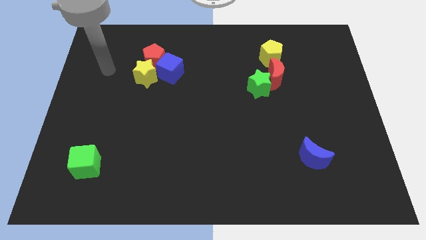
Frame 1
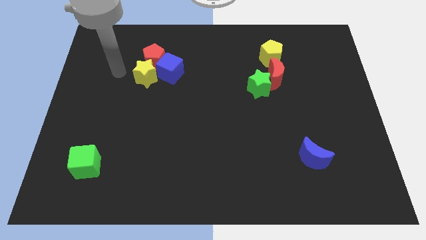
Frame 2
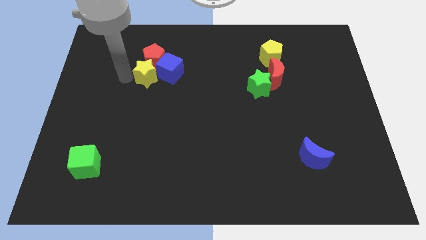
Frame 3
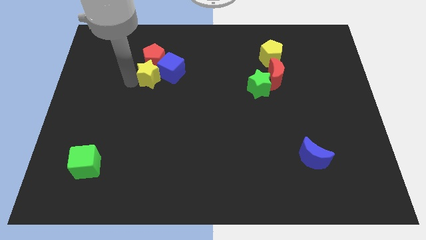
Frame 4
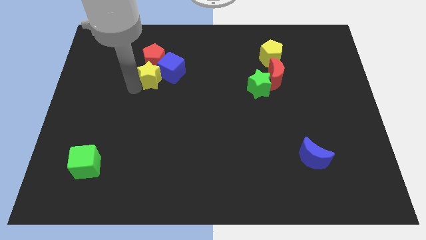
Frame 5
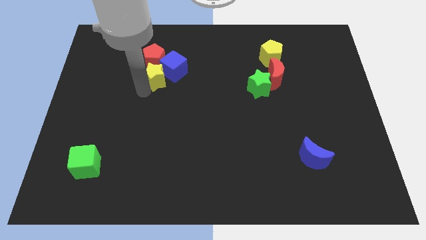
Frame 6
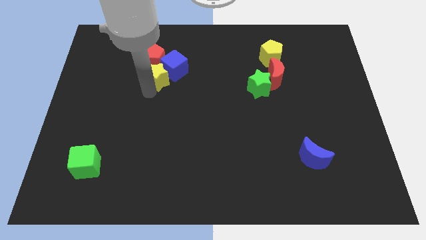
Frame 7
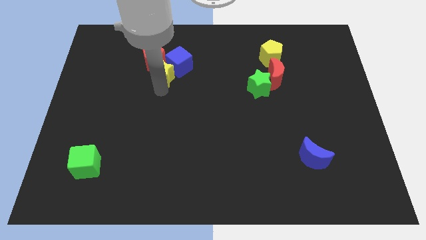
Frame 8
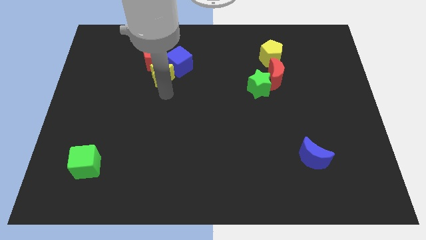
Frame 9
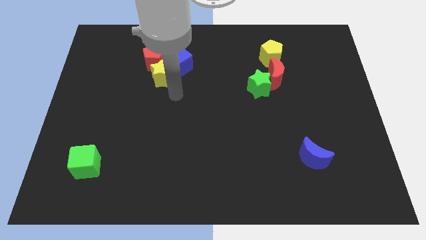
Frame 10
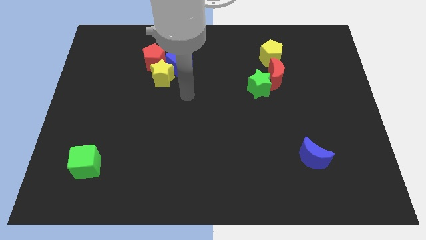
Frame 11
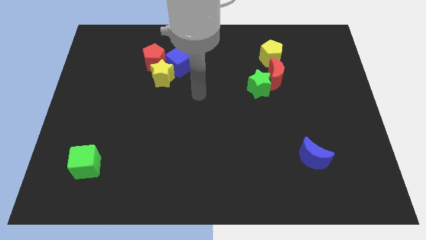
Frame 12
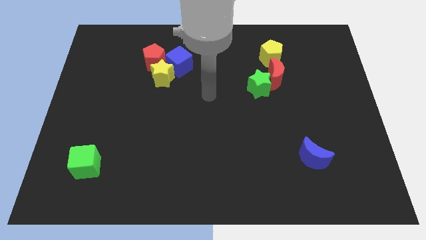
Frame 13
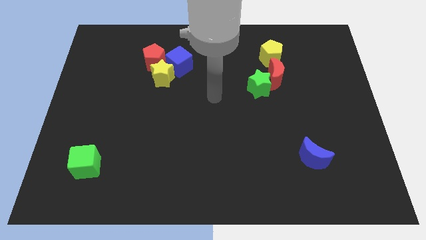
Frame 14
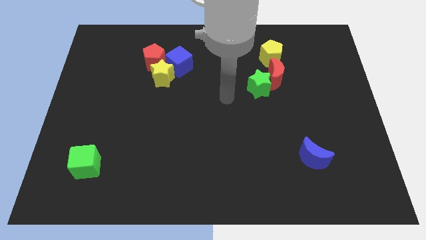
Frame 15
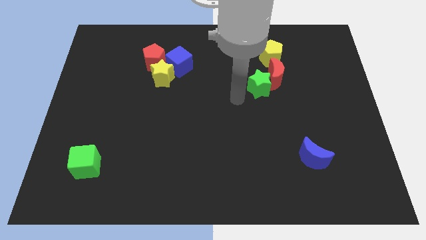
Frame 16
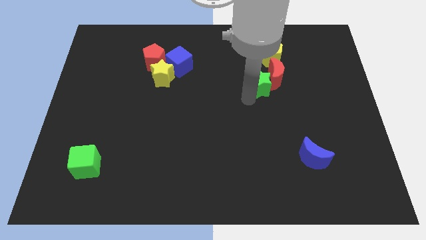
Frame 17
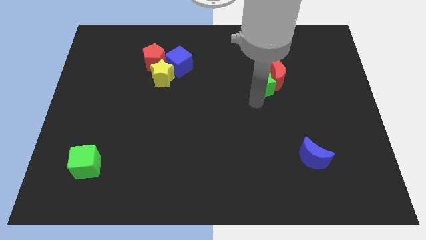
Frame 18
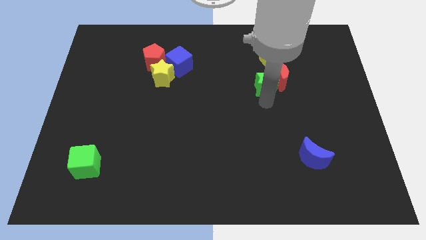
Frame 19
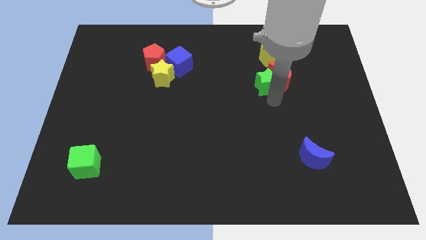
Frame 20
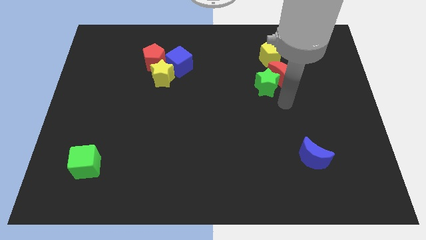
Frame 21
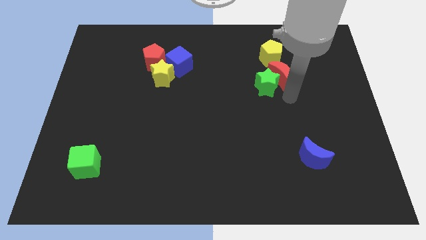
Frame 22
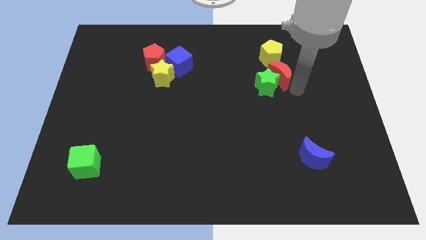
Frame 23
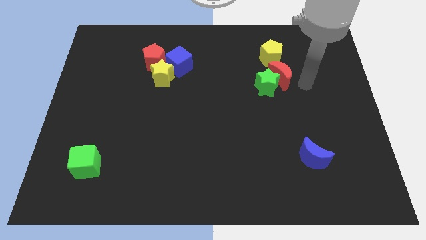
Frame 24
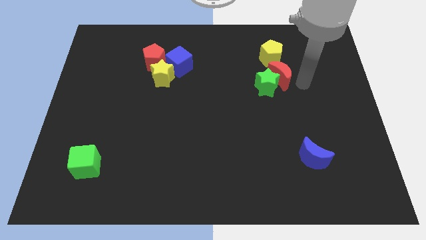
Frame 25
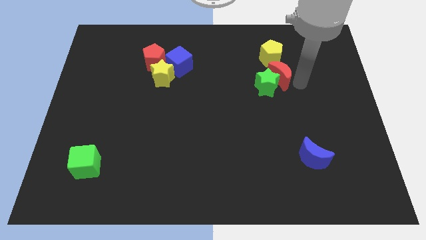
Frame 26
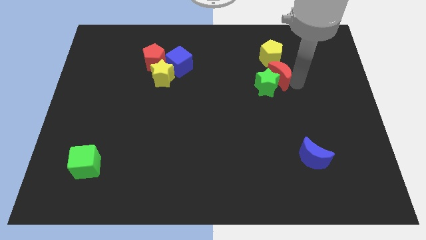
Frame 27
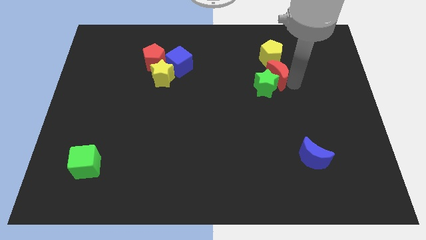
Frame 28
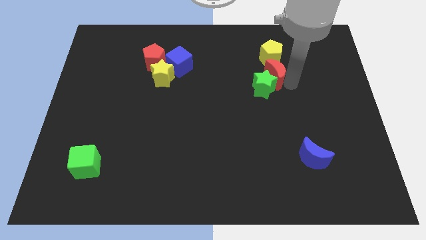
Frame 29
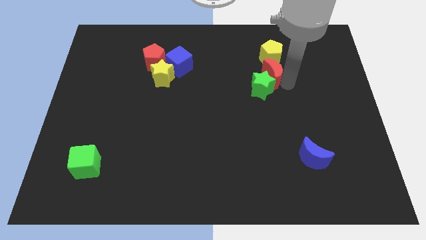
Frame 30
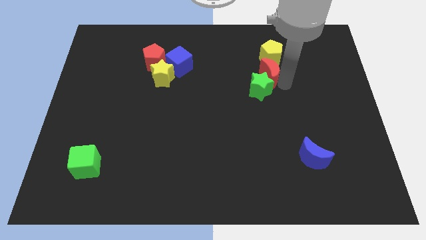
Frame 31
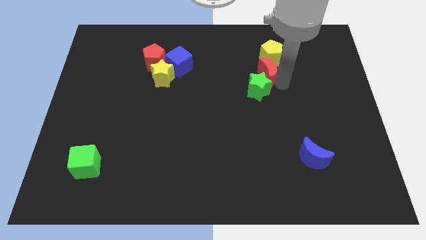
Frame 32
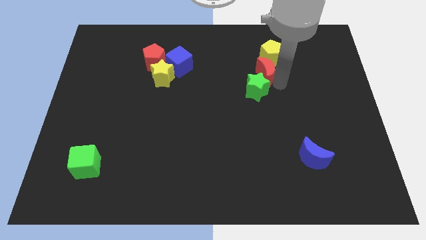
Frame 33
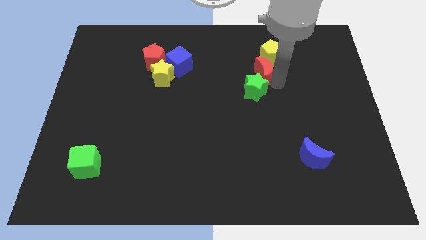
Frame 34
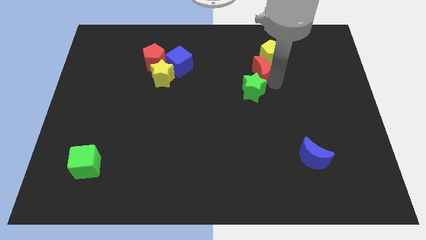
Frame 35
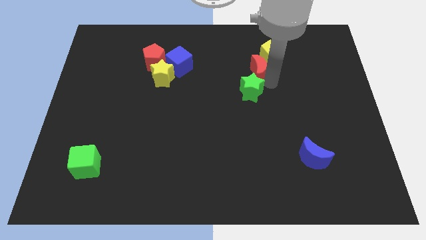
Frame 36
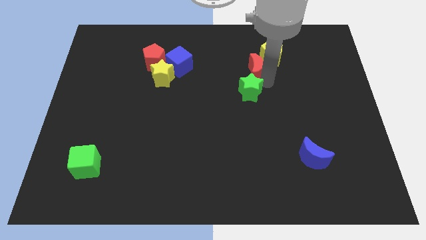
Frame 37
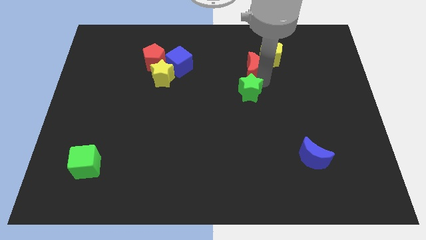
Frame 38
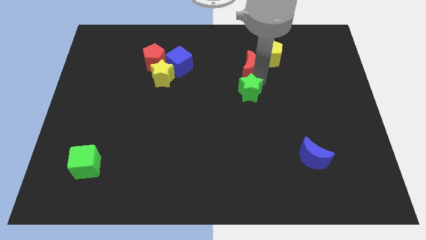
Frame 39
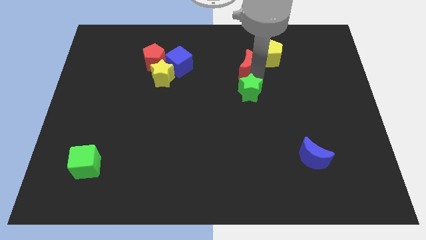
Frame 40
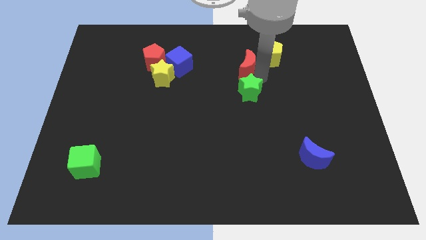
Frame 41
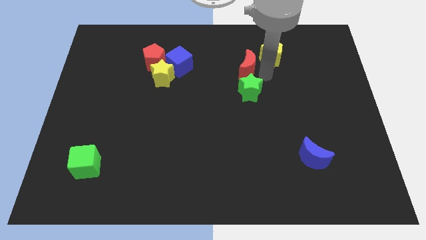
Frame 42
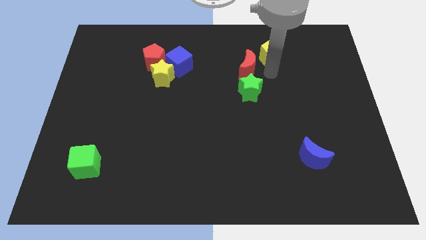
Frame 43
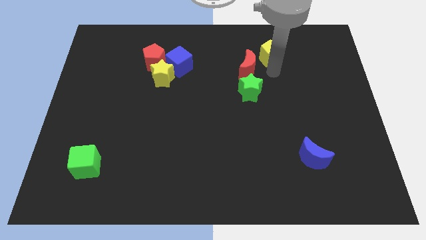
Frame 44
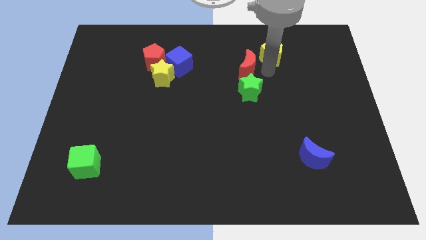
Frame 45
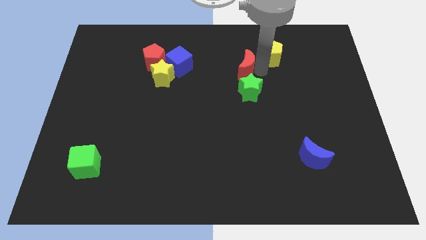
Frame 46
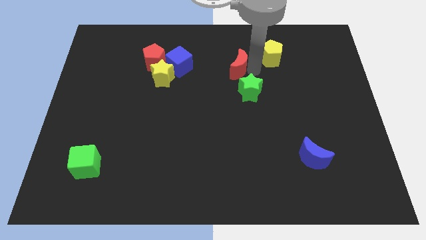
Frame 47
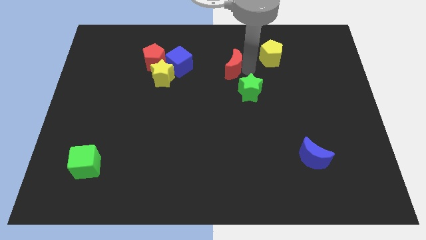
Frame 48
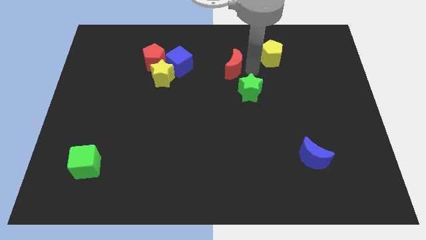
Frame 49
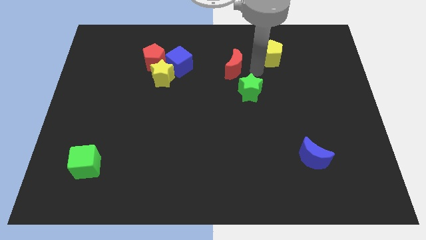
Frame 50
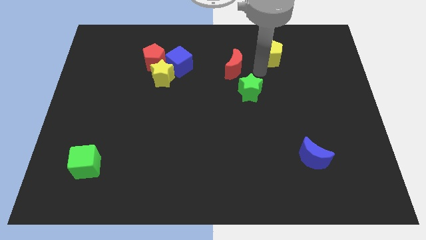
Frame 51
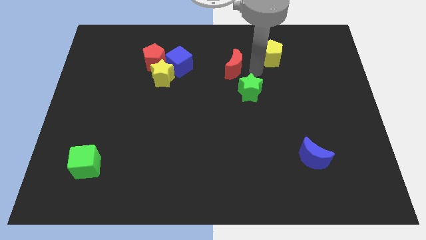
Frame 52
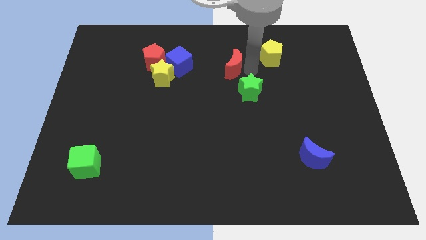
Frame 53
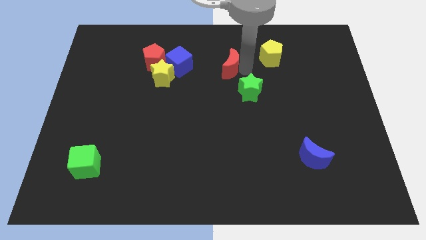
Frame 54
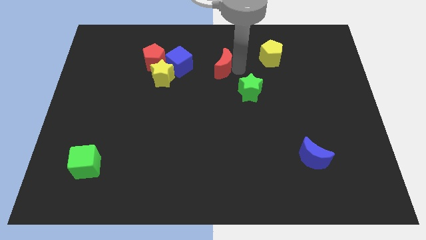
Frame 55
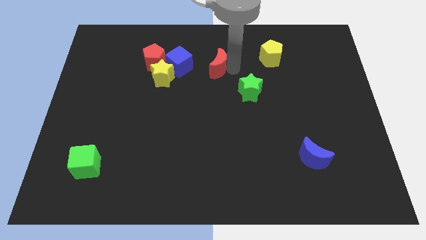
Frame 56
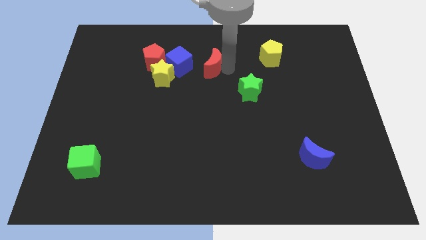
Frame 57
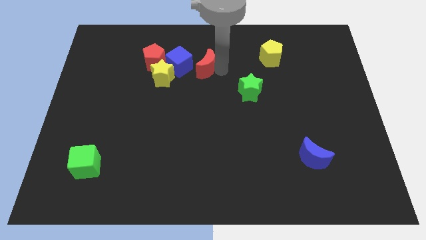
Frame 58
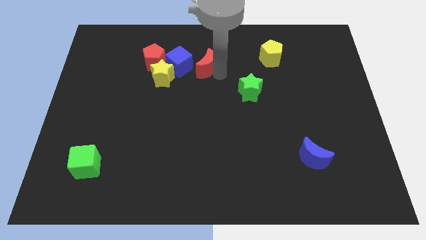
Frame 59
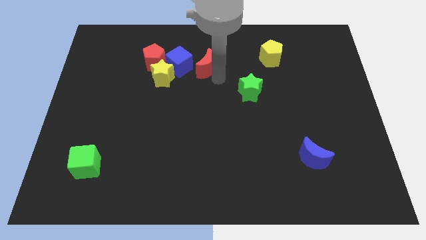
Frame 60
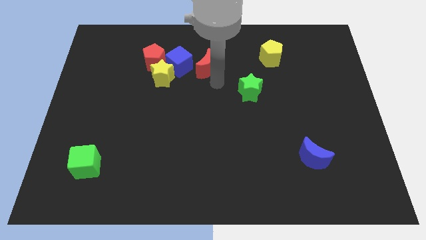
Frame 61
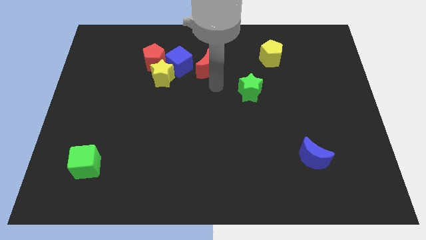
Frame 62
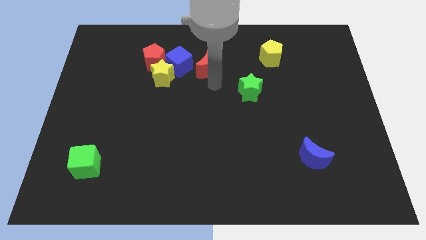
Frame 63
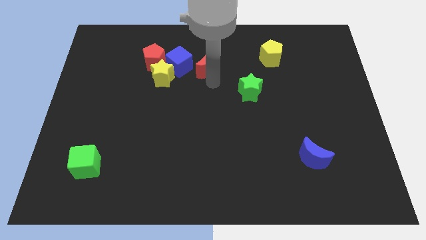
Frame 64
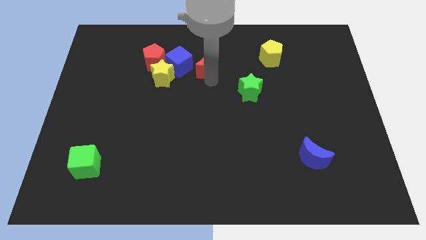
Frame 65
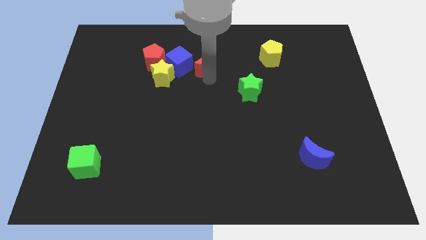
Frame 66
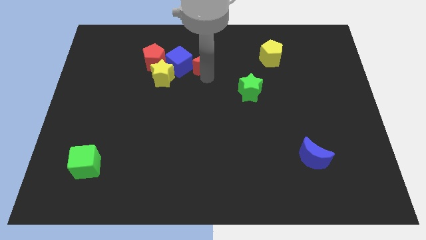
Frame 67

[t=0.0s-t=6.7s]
put the red moon diagonally up and to the right of the blue cube
